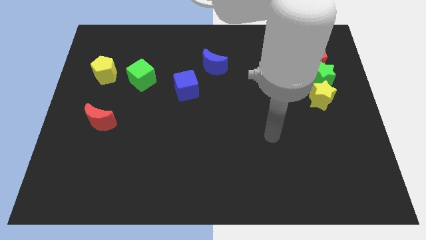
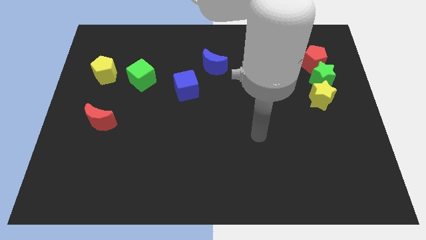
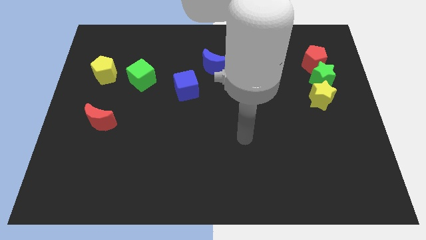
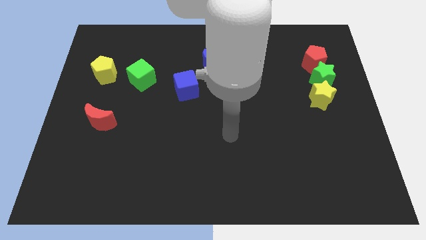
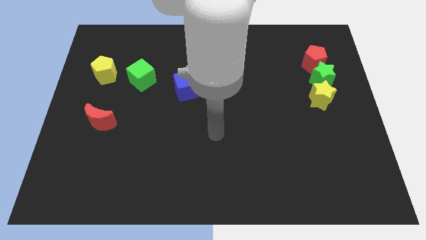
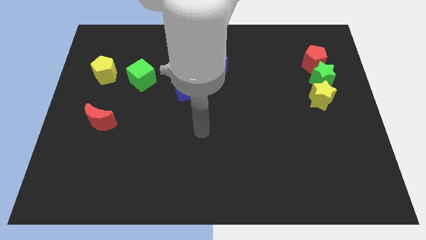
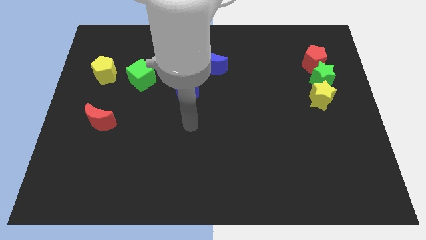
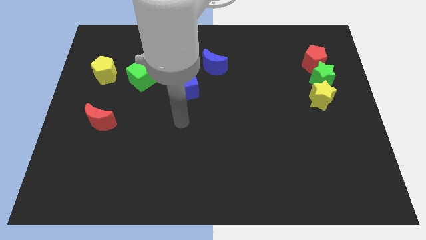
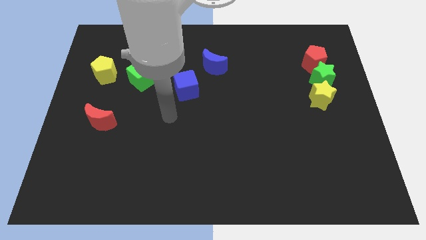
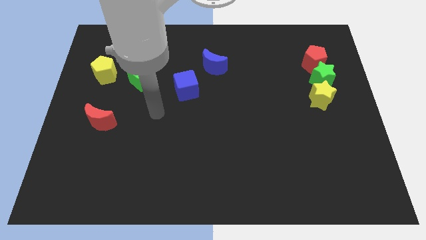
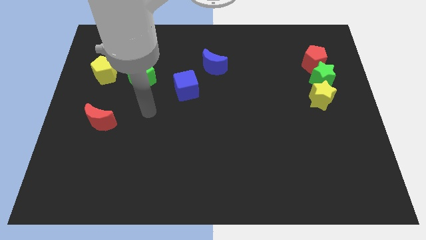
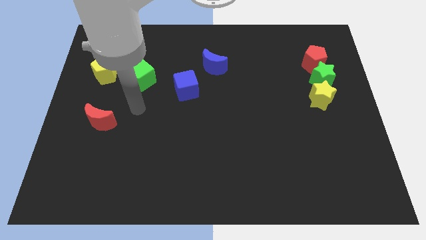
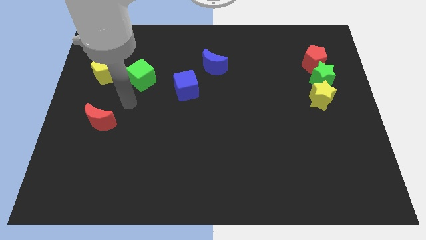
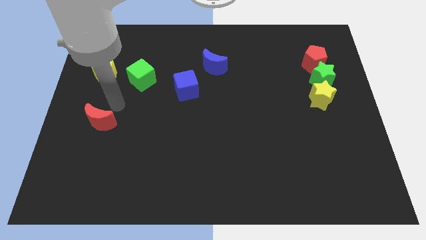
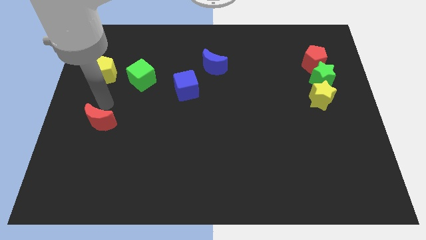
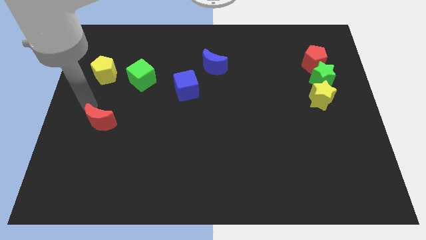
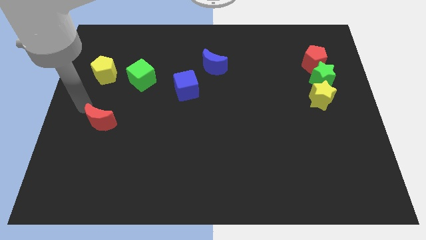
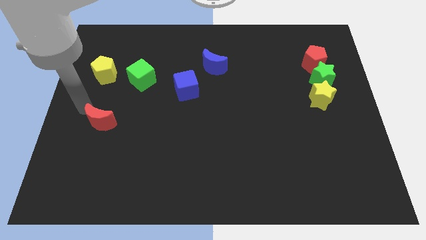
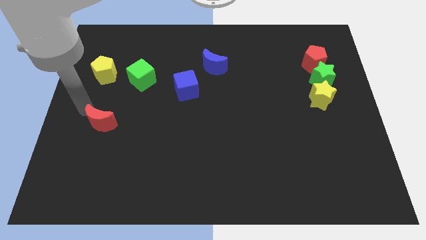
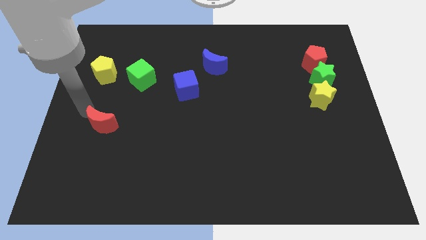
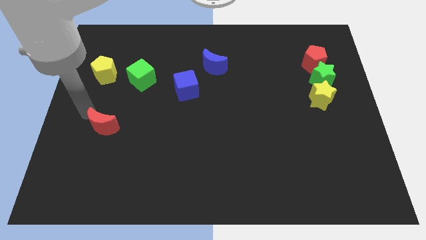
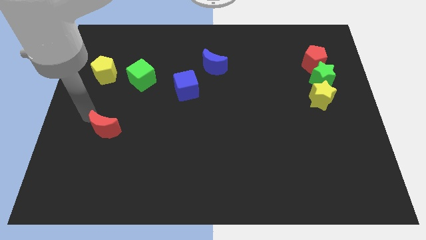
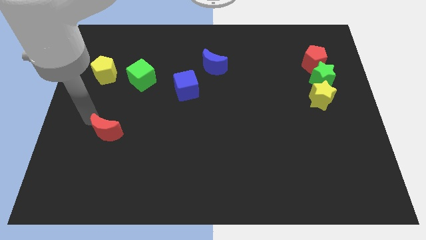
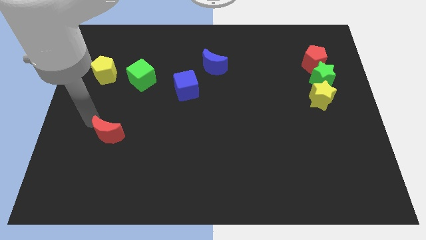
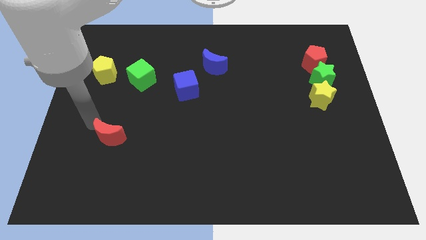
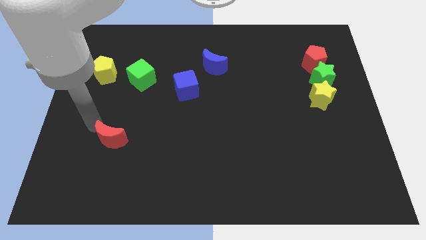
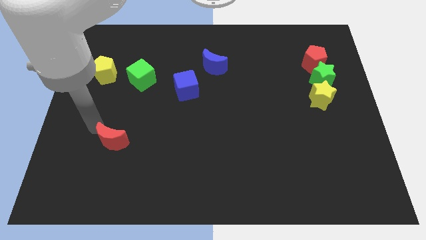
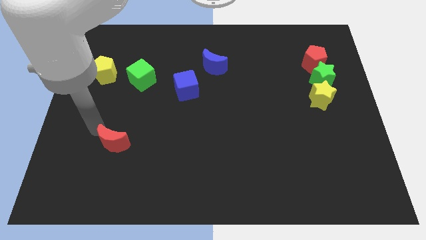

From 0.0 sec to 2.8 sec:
push the red moon a little diagonally down and right

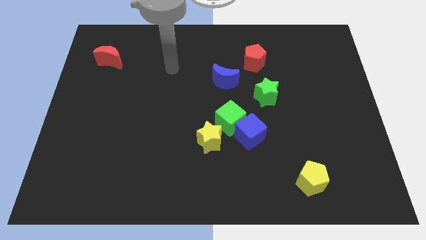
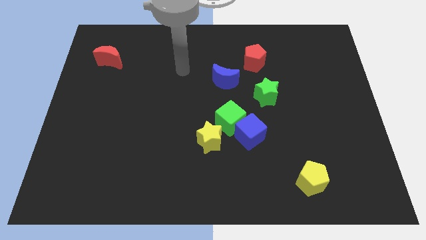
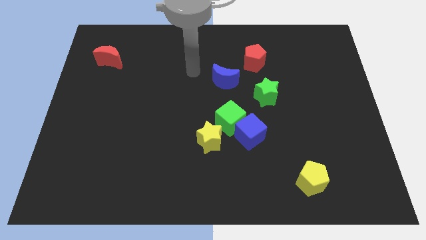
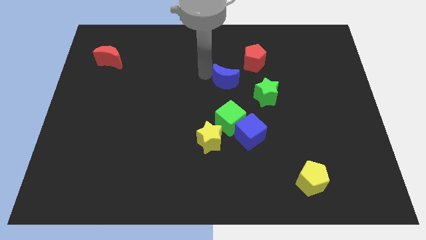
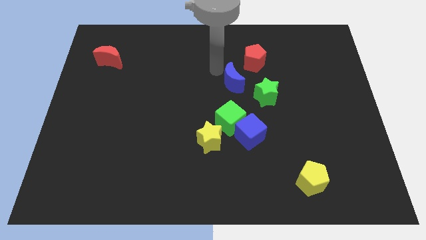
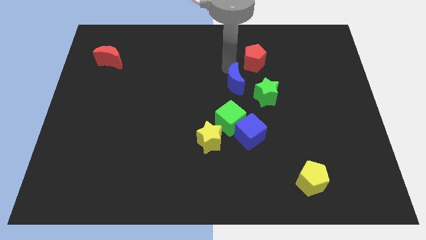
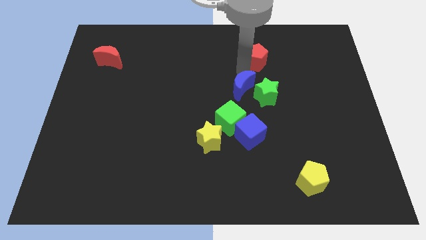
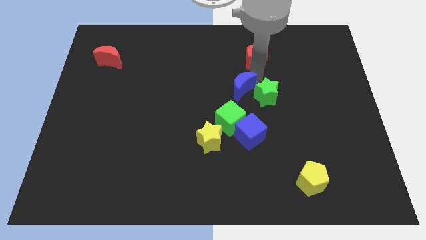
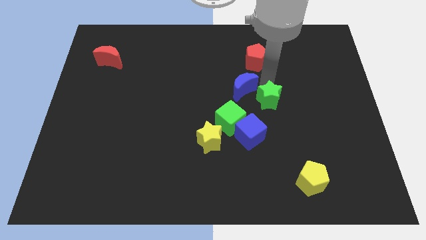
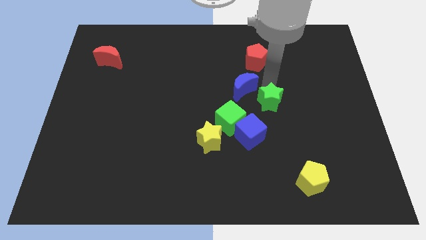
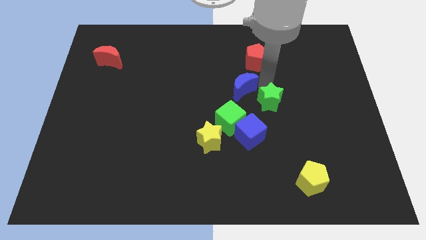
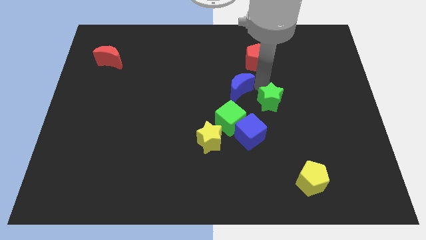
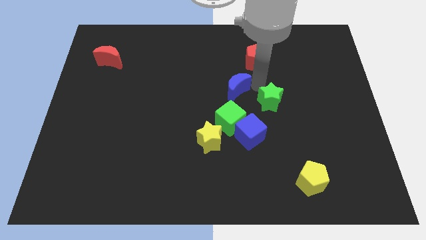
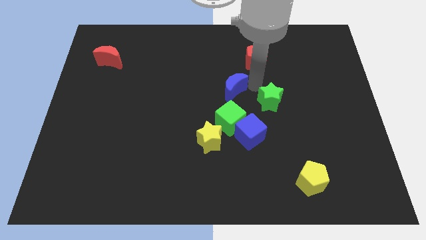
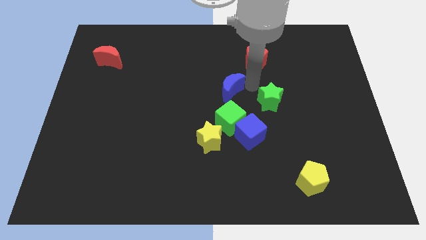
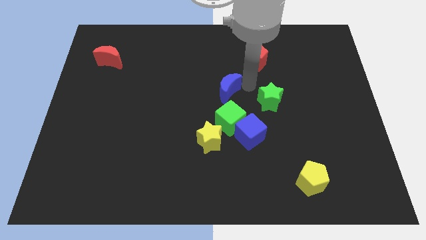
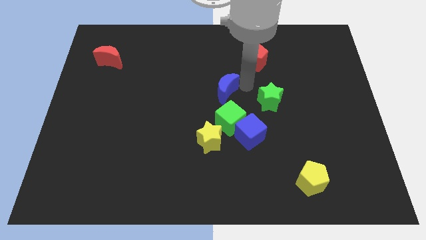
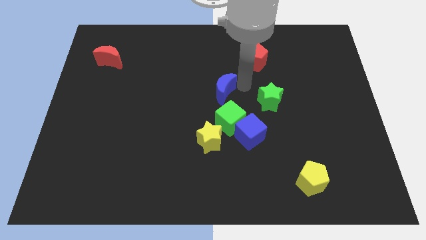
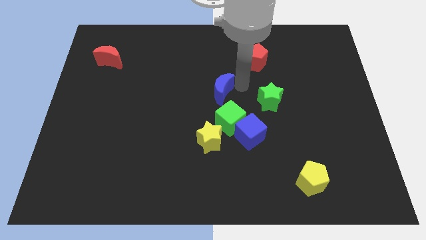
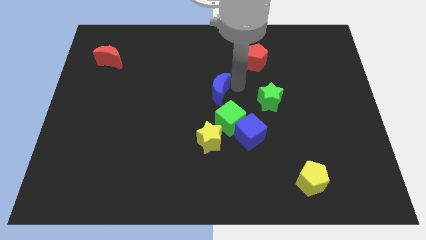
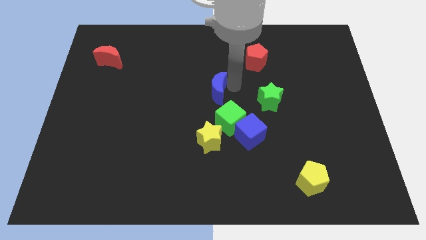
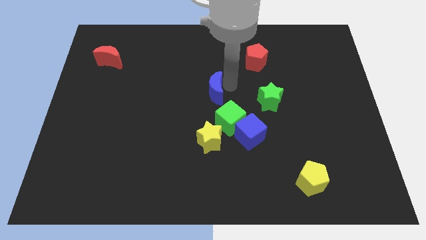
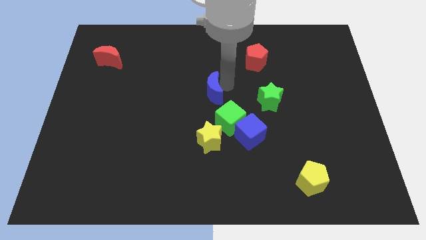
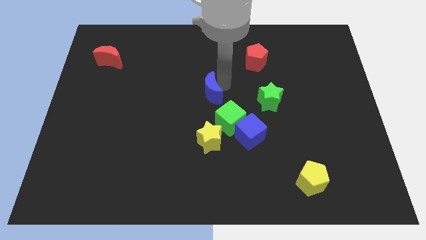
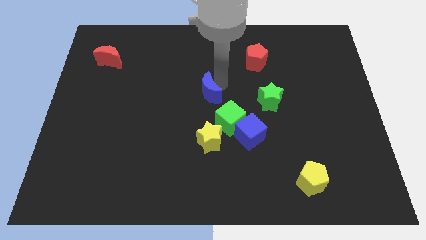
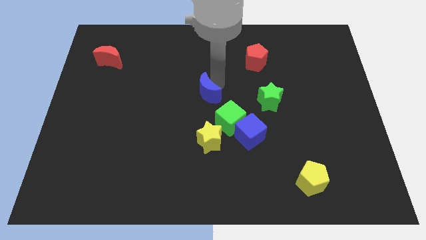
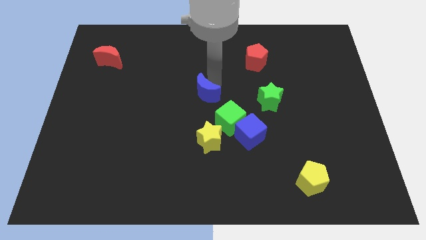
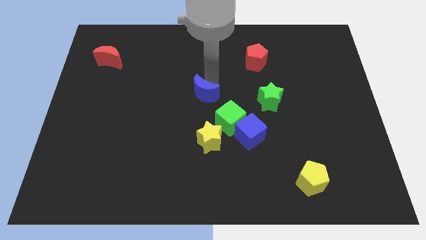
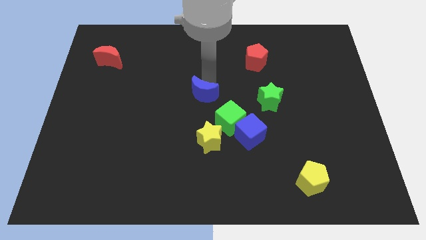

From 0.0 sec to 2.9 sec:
slide the blue moon downwards and left a little bit

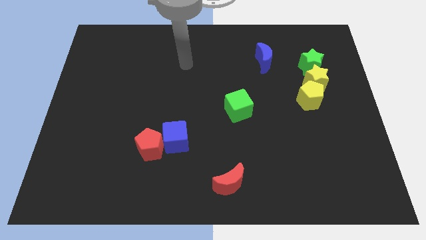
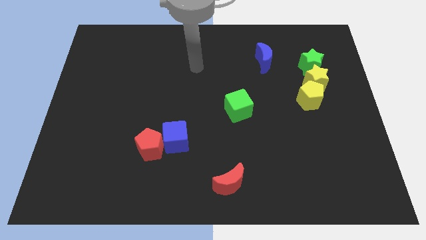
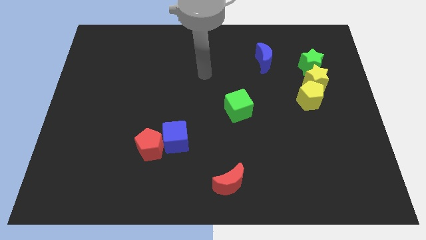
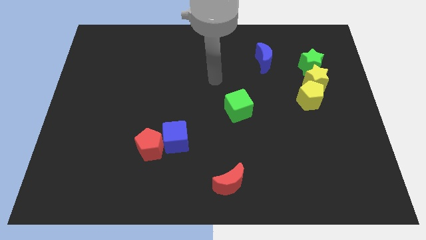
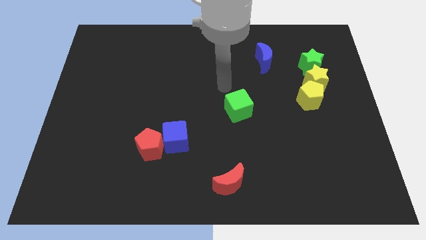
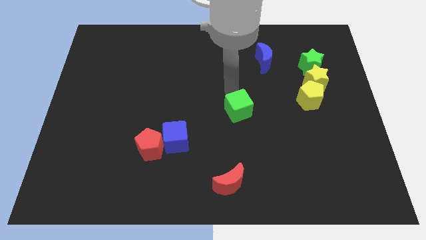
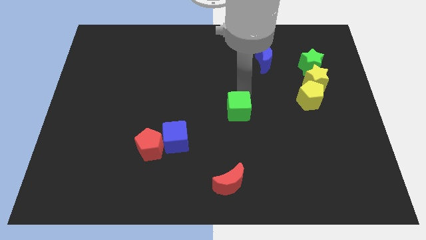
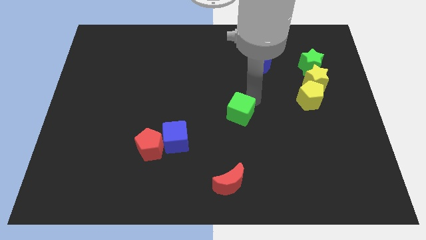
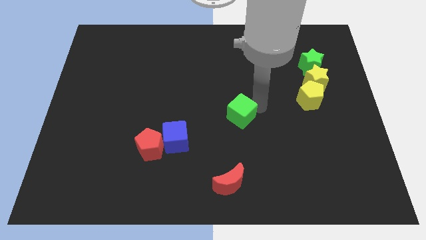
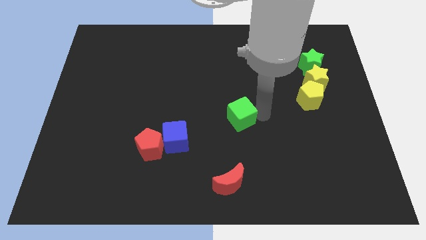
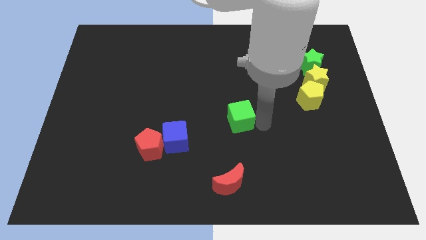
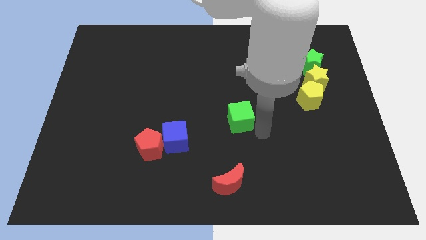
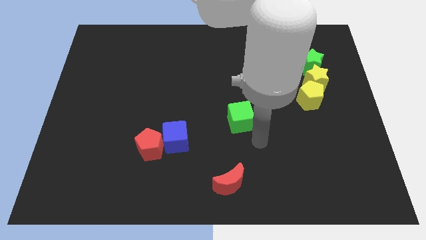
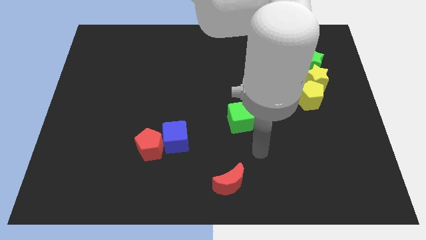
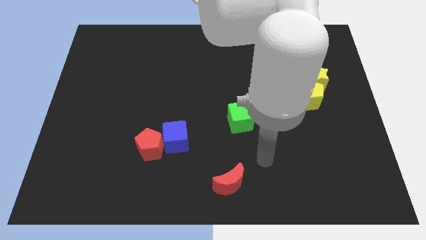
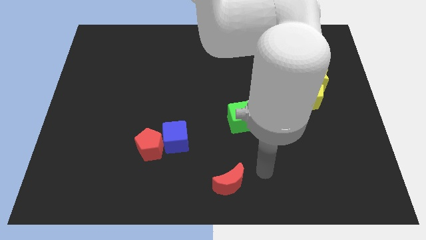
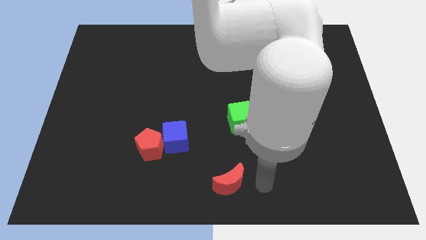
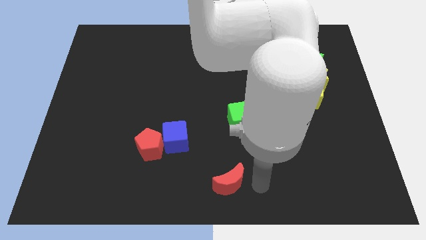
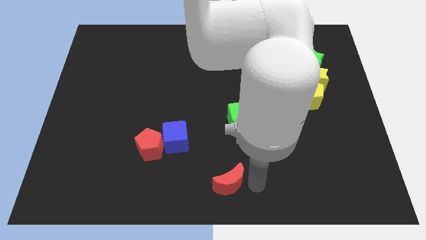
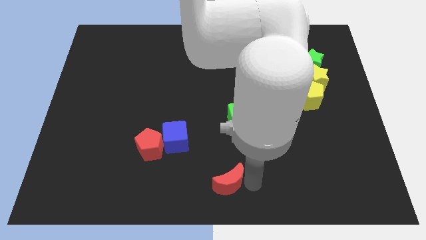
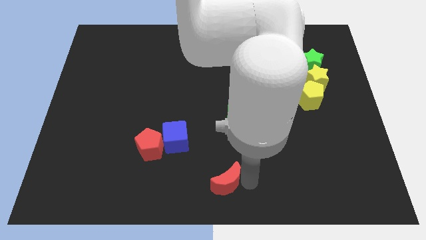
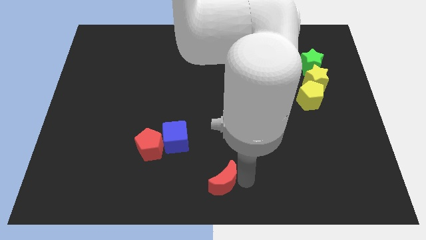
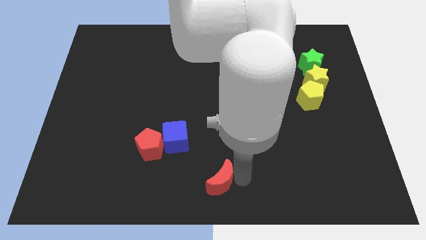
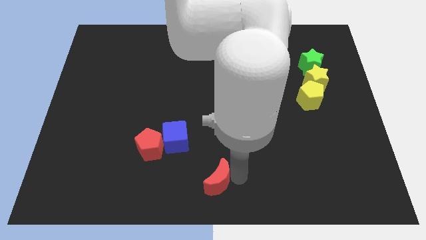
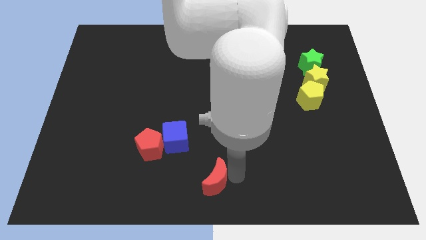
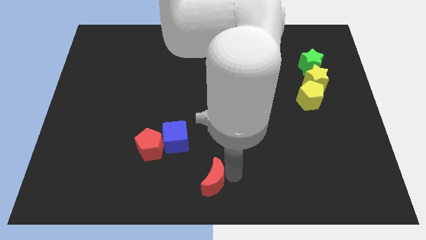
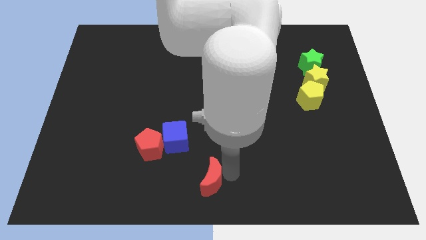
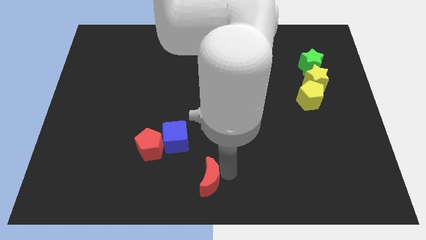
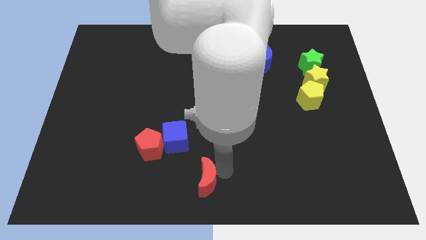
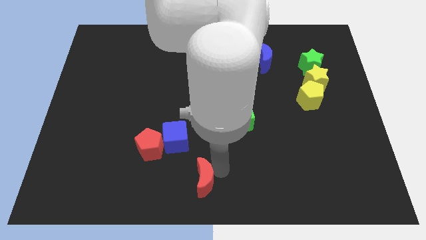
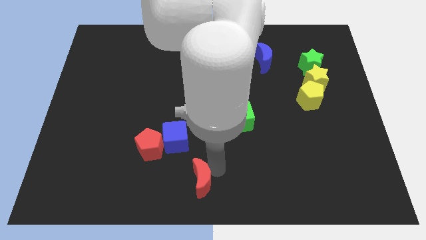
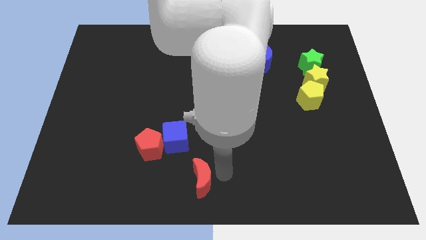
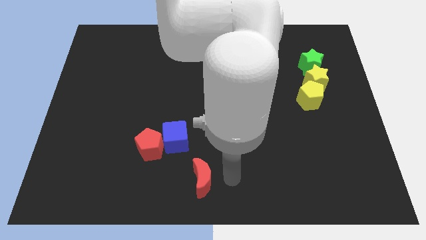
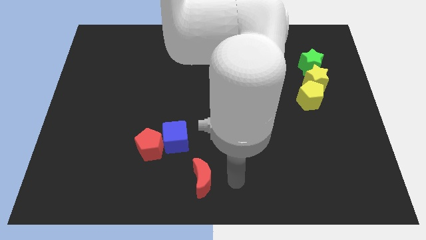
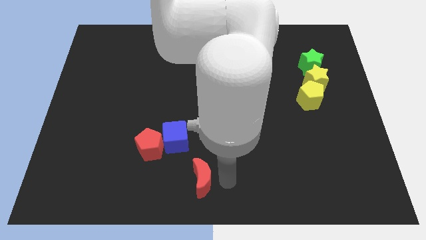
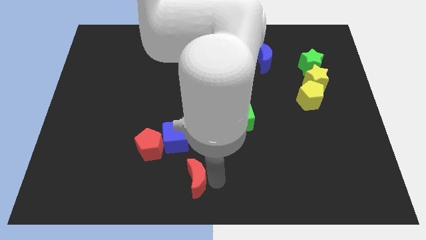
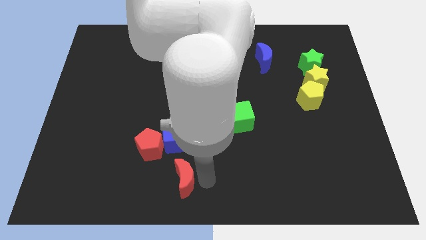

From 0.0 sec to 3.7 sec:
move the red moon a little left
